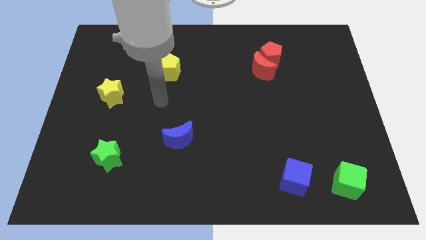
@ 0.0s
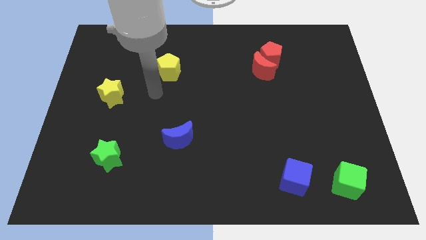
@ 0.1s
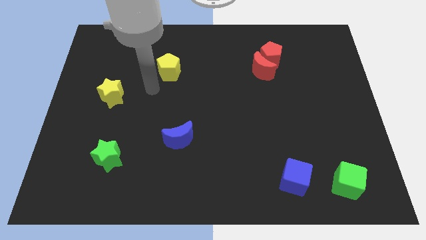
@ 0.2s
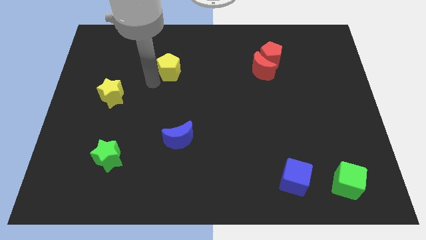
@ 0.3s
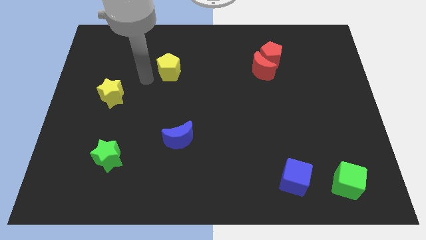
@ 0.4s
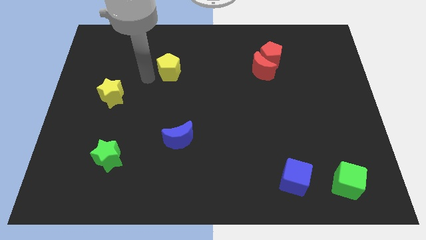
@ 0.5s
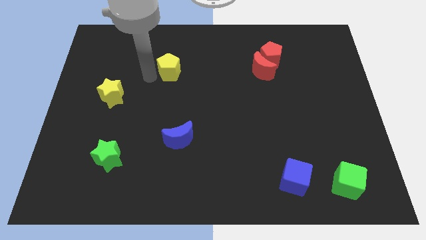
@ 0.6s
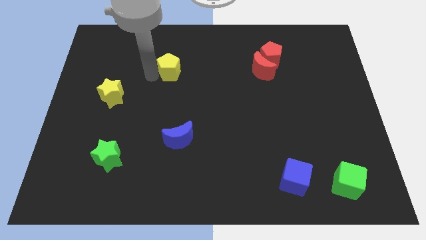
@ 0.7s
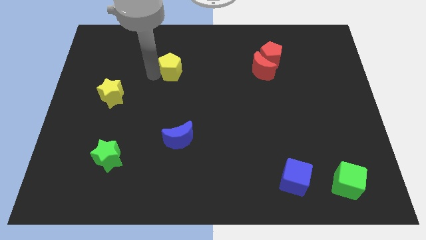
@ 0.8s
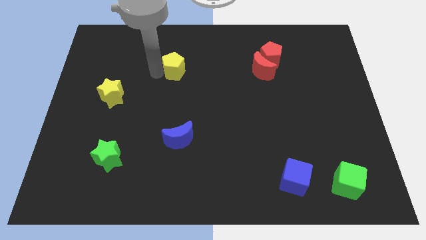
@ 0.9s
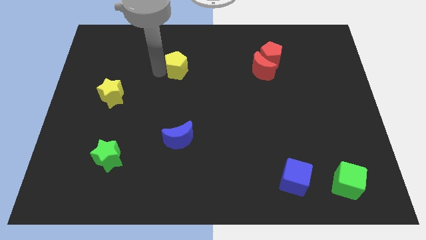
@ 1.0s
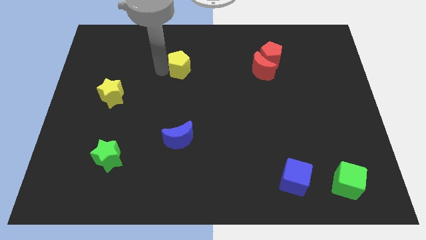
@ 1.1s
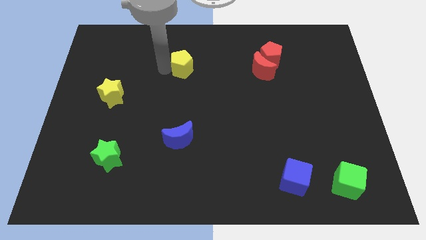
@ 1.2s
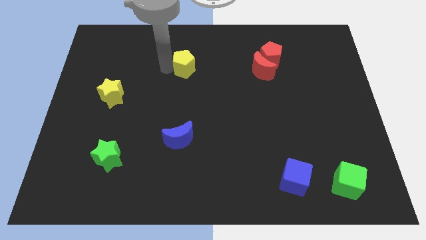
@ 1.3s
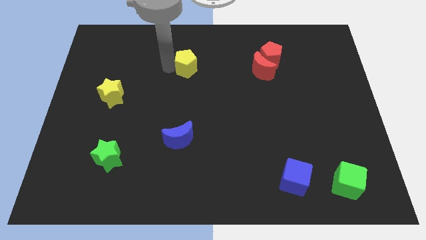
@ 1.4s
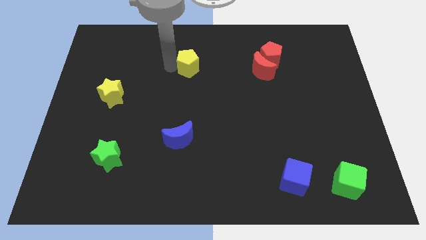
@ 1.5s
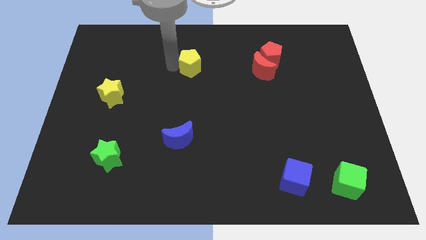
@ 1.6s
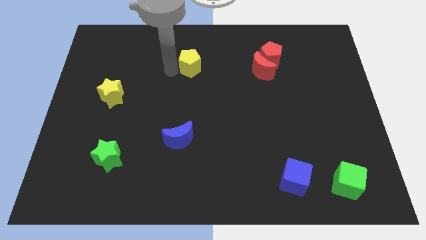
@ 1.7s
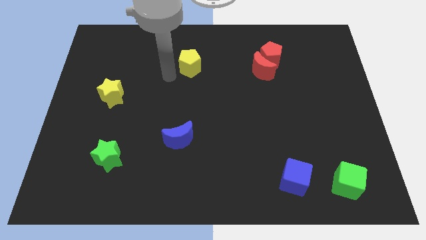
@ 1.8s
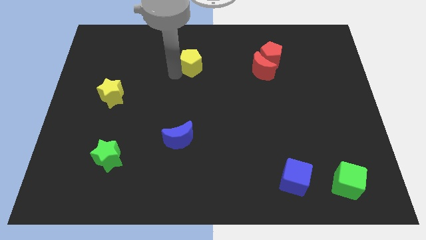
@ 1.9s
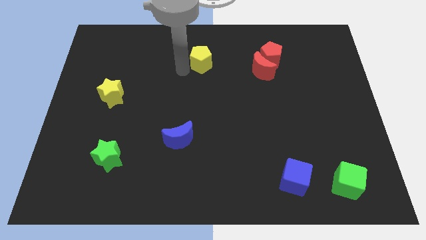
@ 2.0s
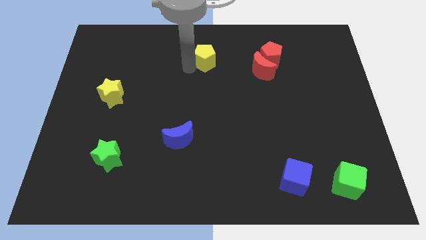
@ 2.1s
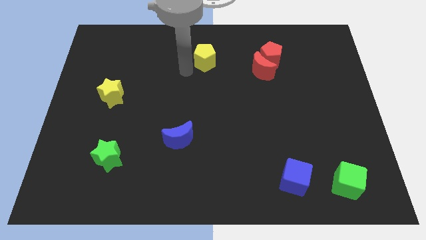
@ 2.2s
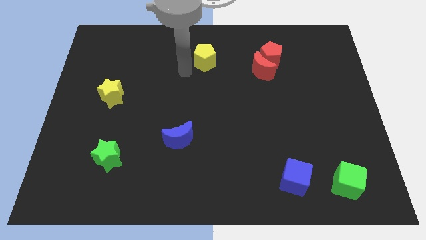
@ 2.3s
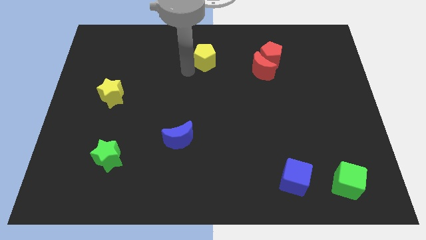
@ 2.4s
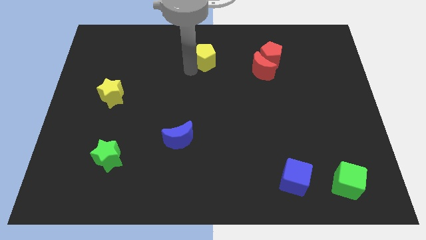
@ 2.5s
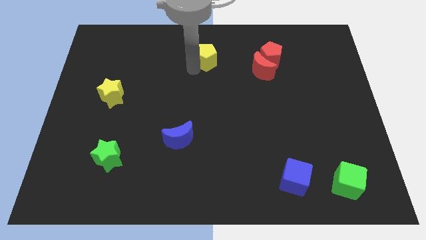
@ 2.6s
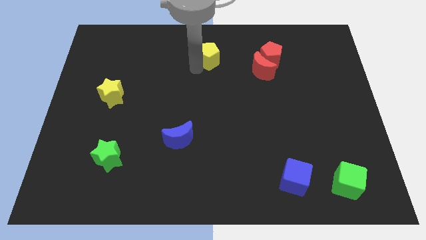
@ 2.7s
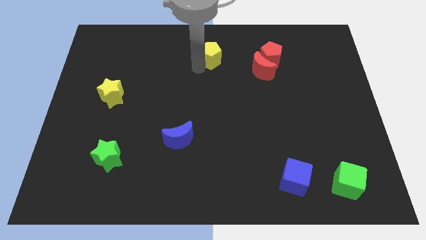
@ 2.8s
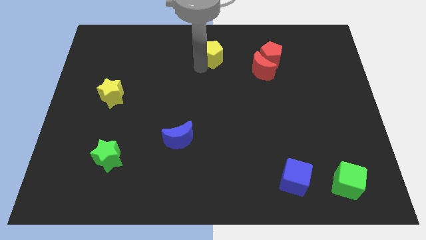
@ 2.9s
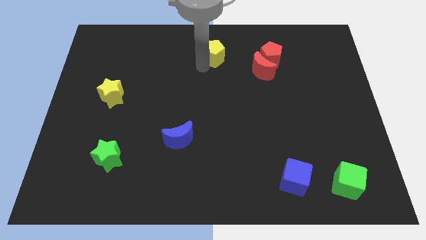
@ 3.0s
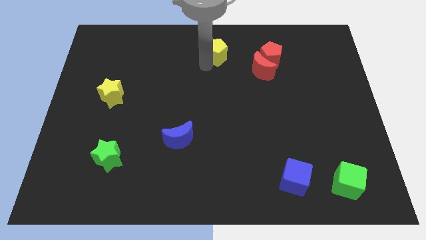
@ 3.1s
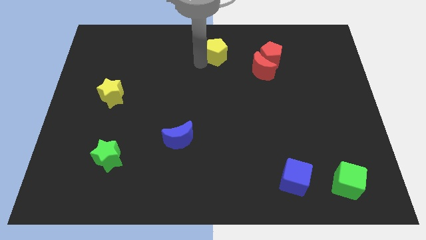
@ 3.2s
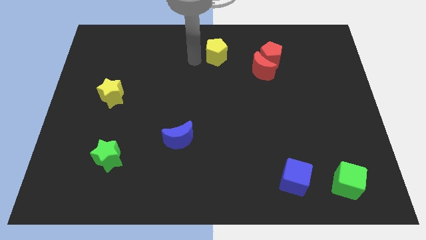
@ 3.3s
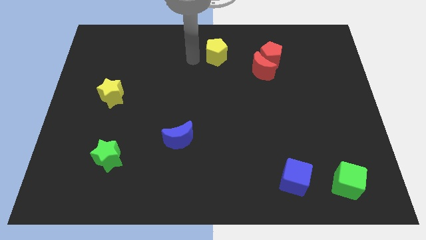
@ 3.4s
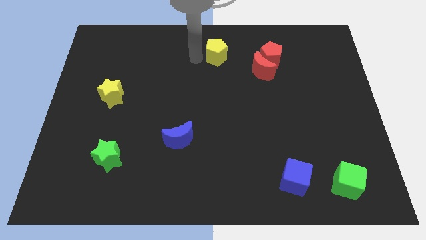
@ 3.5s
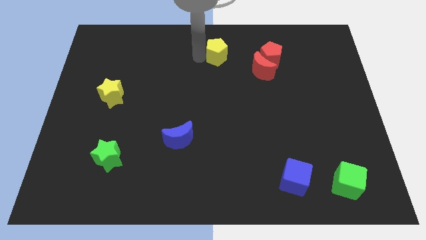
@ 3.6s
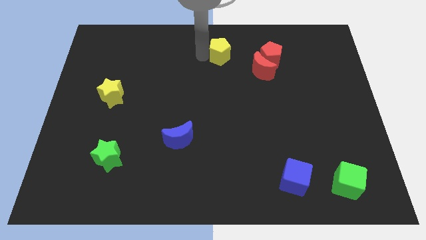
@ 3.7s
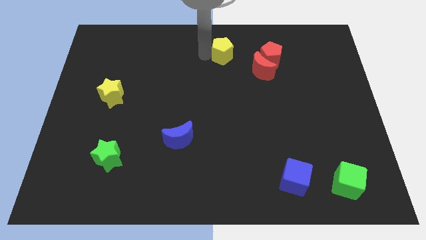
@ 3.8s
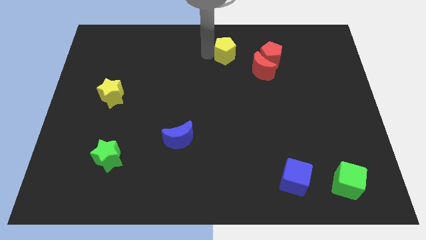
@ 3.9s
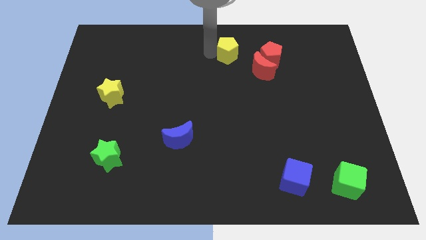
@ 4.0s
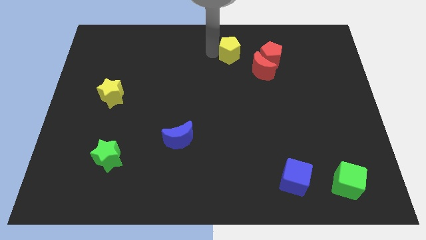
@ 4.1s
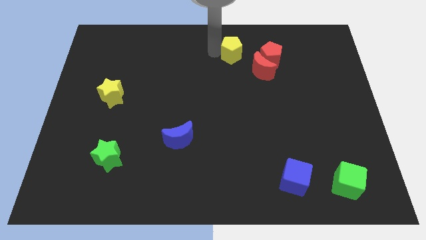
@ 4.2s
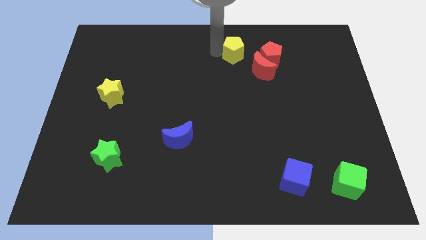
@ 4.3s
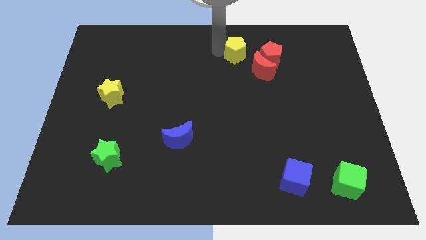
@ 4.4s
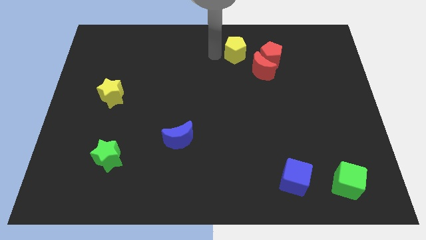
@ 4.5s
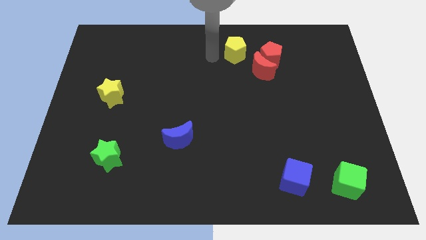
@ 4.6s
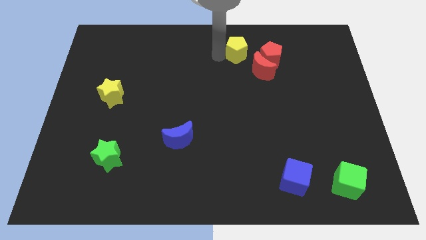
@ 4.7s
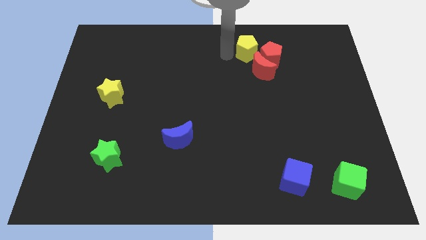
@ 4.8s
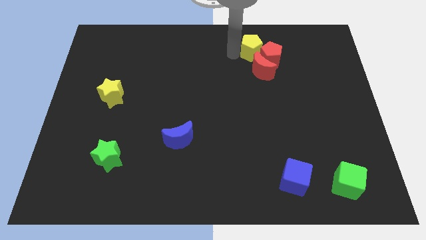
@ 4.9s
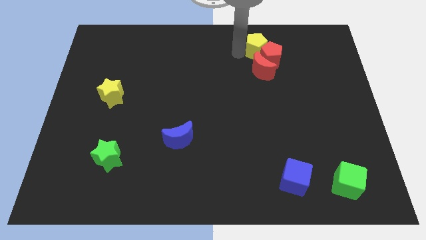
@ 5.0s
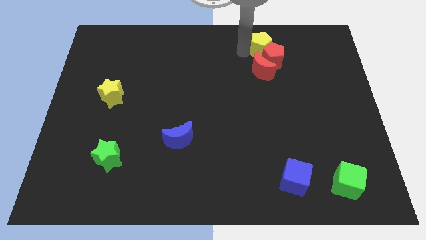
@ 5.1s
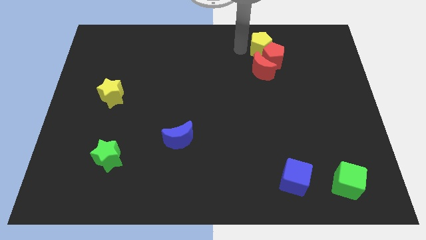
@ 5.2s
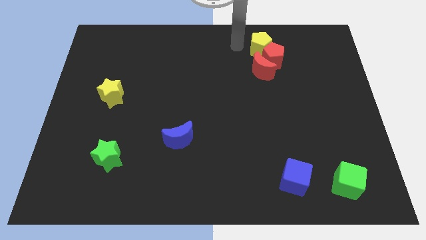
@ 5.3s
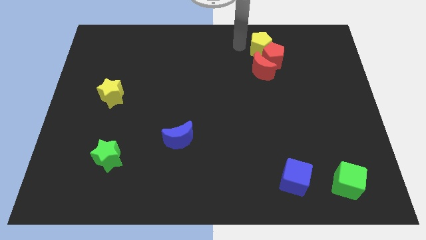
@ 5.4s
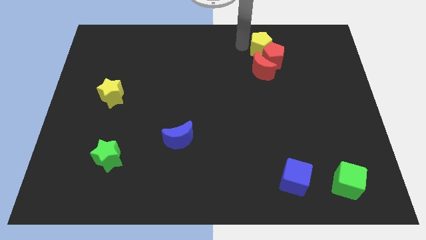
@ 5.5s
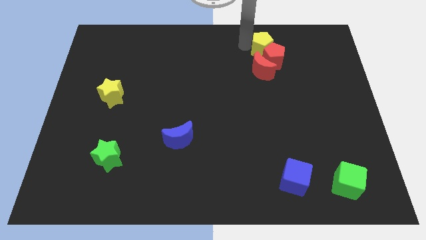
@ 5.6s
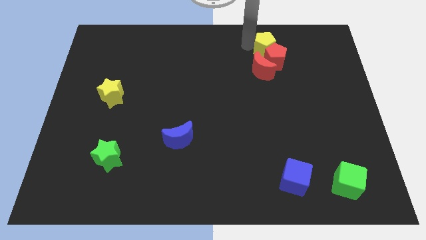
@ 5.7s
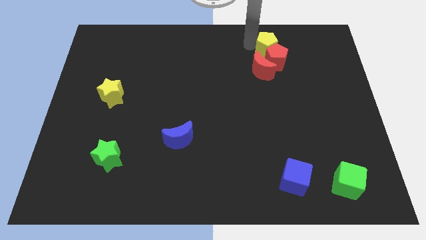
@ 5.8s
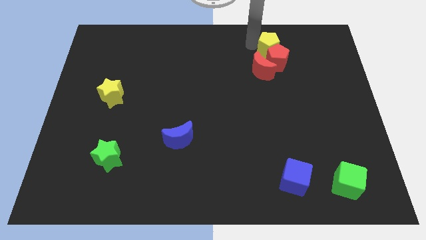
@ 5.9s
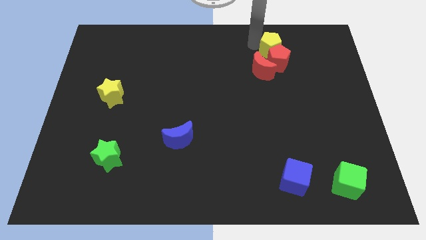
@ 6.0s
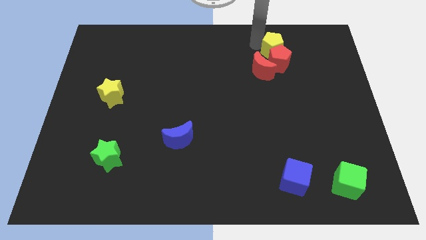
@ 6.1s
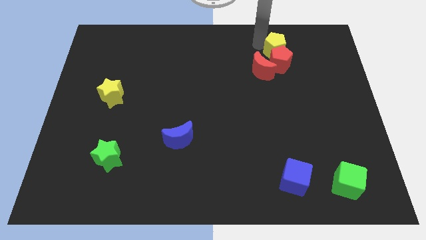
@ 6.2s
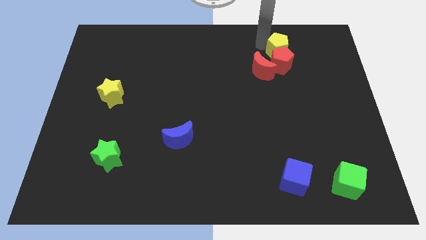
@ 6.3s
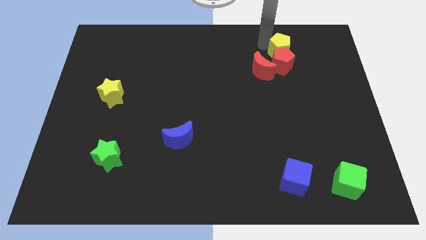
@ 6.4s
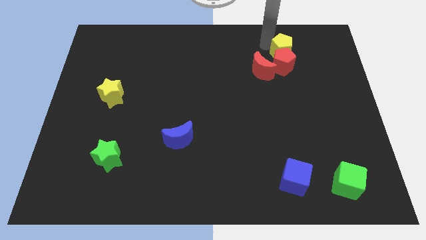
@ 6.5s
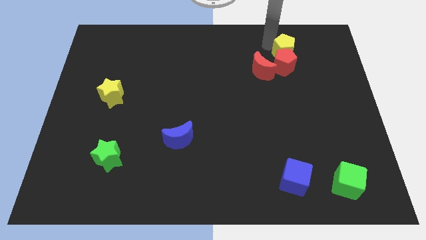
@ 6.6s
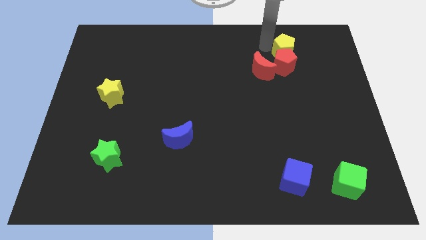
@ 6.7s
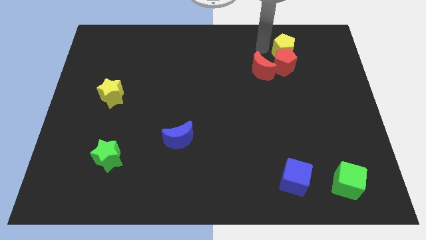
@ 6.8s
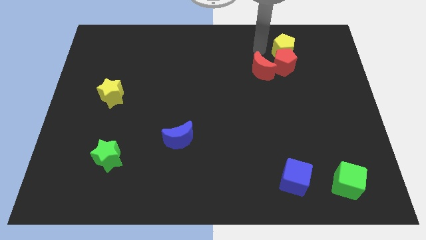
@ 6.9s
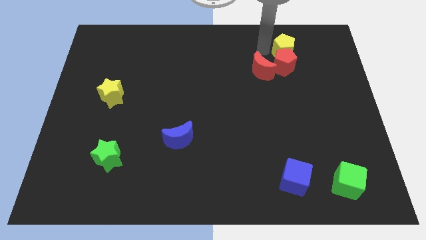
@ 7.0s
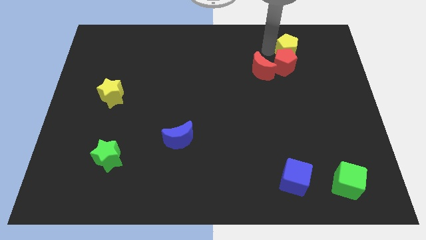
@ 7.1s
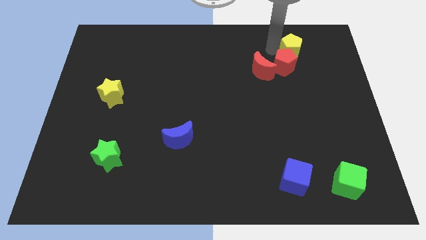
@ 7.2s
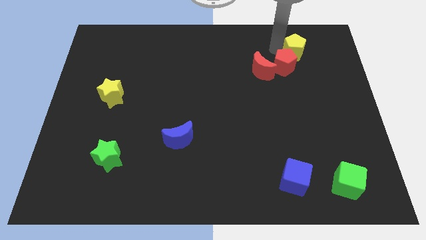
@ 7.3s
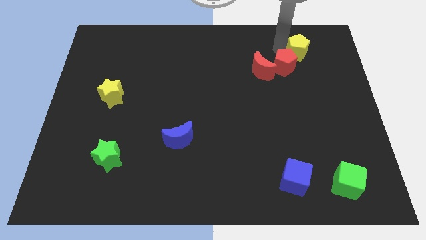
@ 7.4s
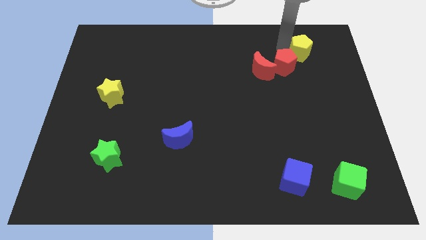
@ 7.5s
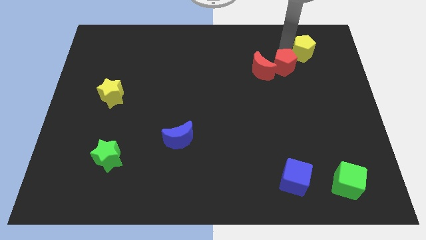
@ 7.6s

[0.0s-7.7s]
put the yellow pentagon to the right of the red pentagon

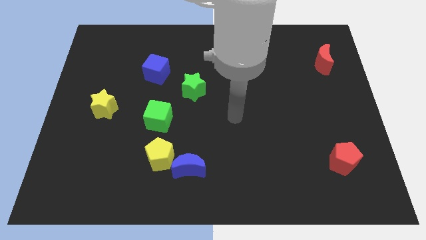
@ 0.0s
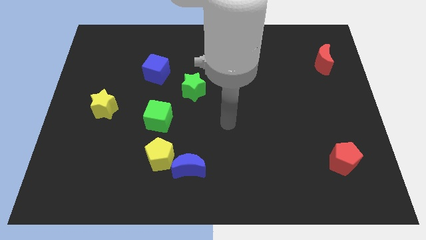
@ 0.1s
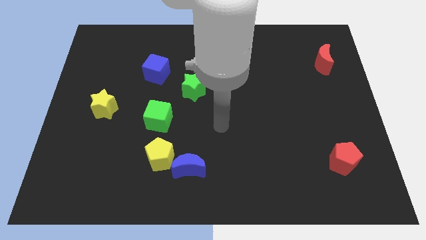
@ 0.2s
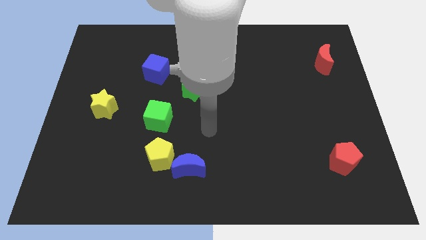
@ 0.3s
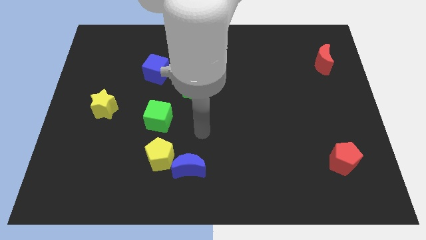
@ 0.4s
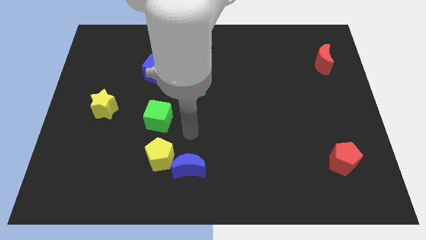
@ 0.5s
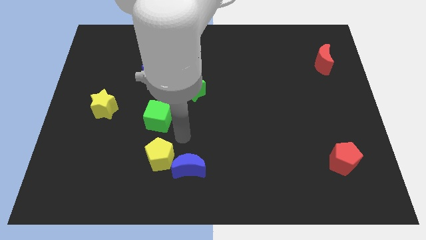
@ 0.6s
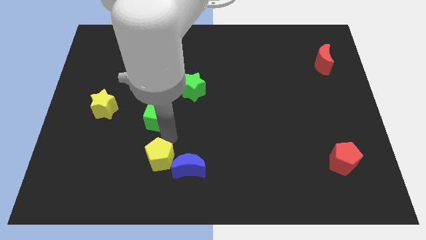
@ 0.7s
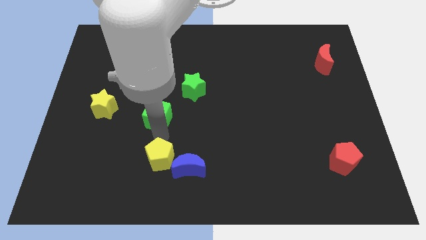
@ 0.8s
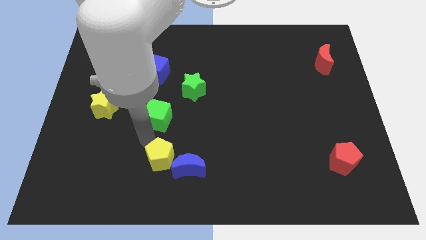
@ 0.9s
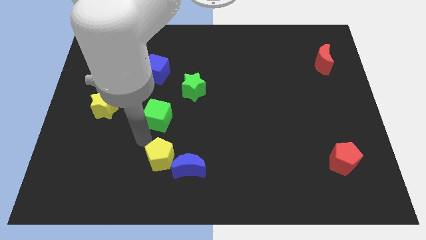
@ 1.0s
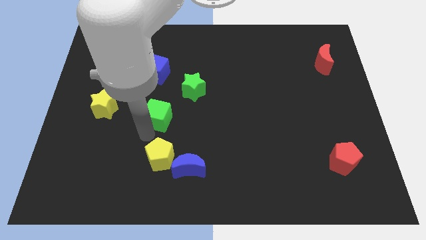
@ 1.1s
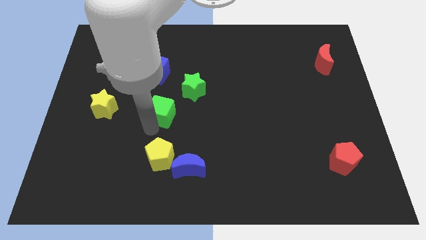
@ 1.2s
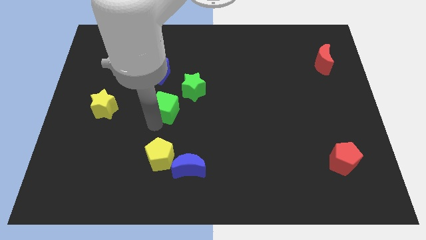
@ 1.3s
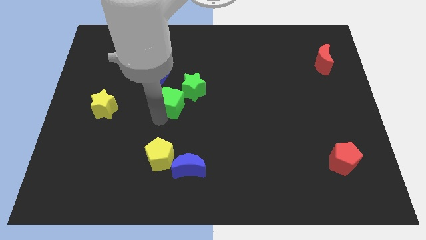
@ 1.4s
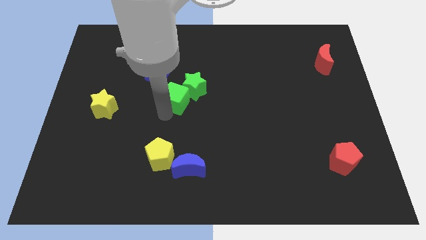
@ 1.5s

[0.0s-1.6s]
put the green cube to the bottom right side of the blue cube
